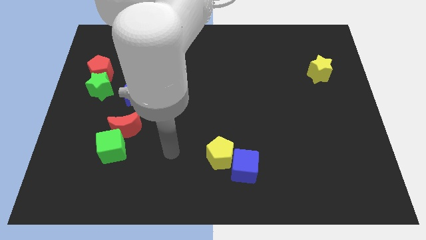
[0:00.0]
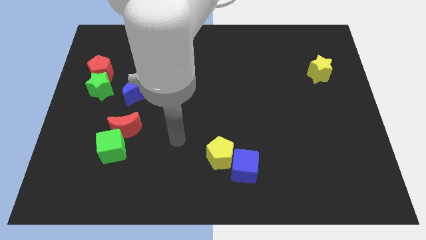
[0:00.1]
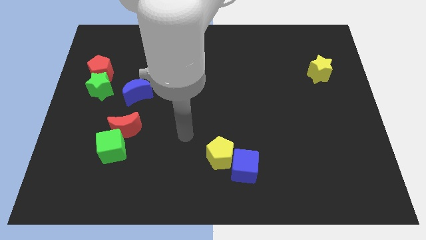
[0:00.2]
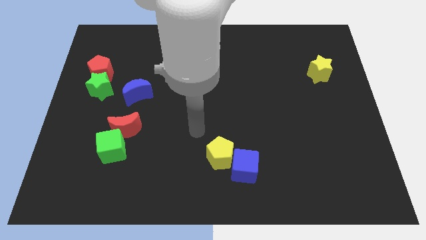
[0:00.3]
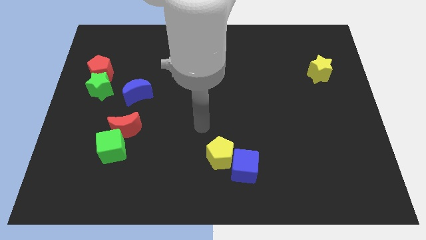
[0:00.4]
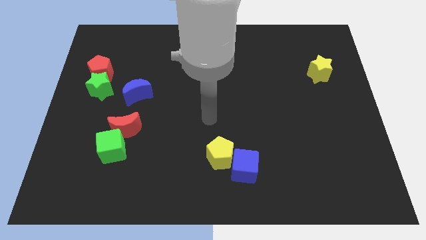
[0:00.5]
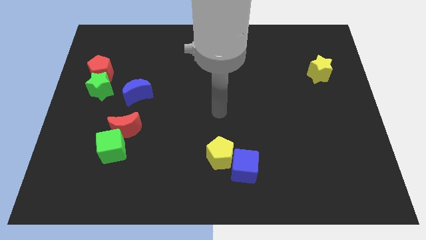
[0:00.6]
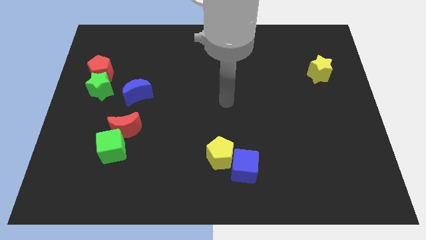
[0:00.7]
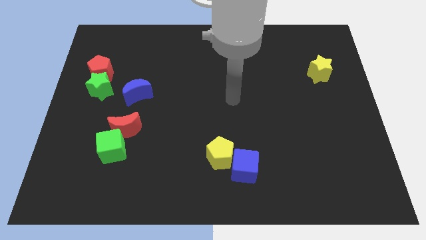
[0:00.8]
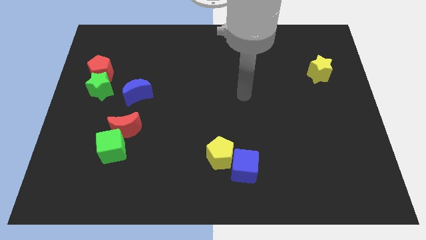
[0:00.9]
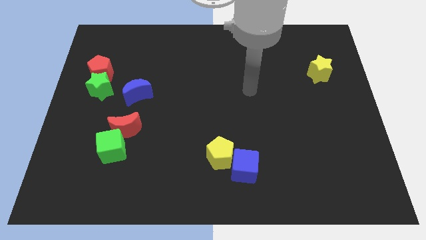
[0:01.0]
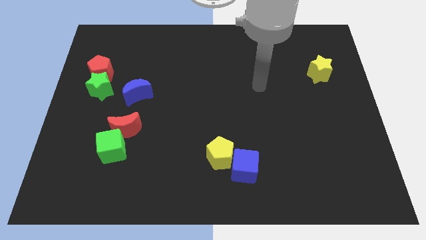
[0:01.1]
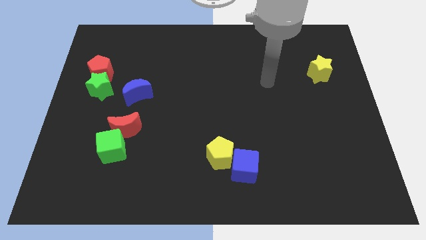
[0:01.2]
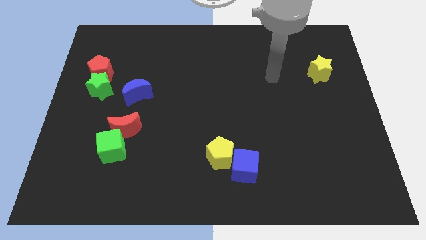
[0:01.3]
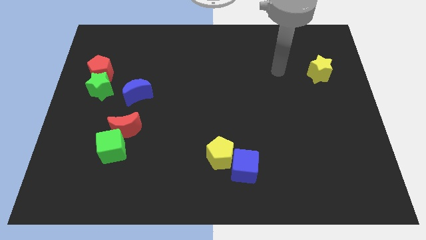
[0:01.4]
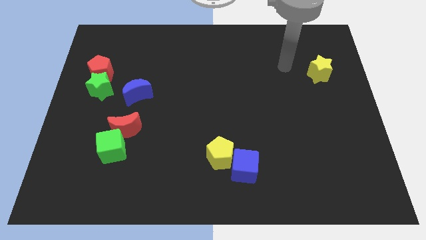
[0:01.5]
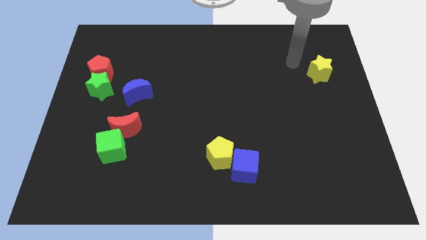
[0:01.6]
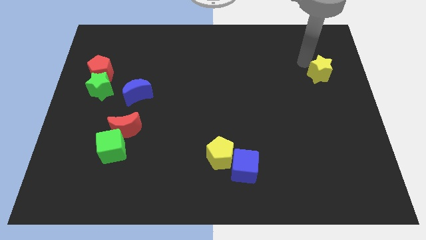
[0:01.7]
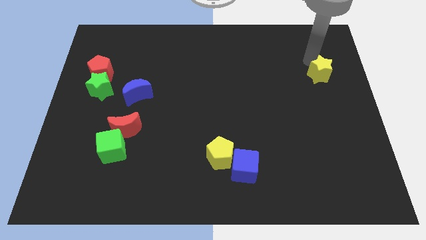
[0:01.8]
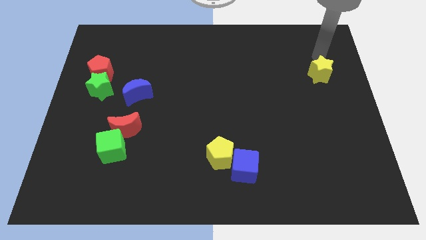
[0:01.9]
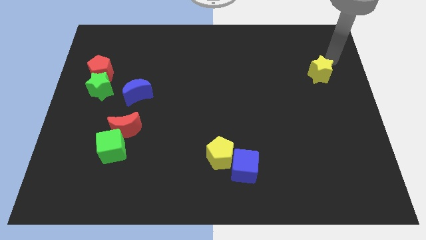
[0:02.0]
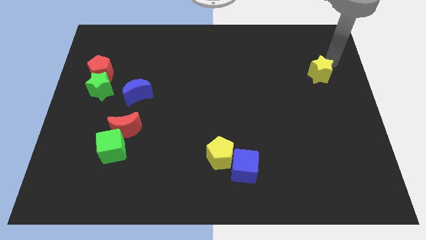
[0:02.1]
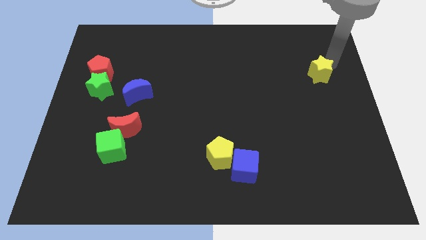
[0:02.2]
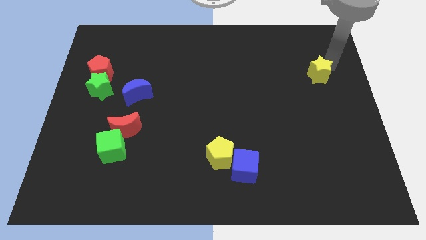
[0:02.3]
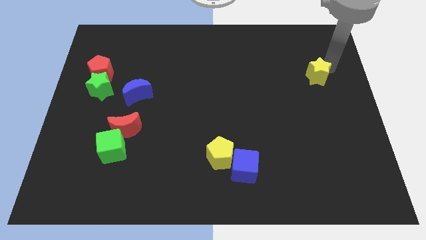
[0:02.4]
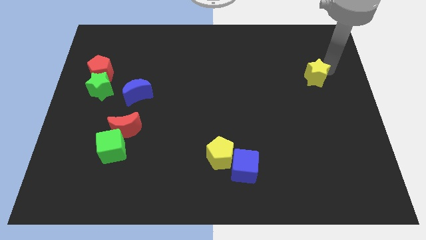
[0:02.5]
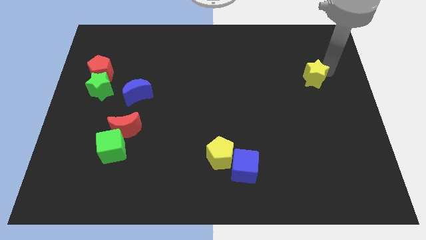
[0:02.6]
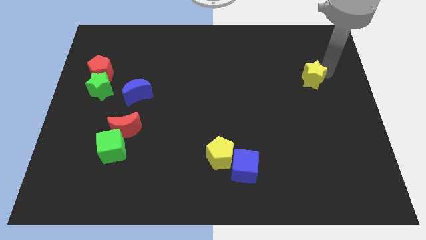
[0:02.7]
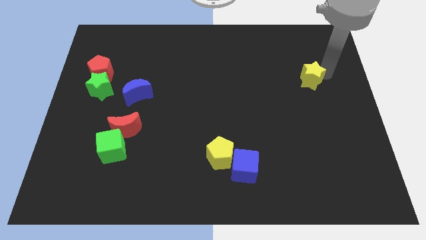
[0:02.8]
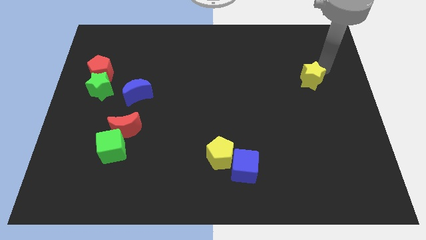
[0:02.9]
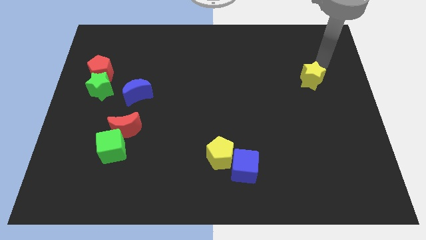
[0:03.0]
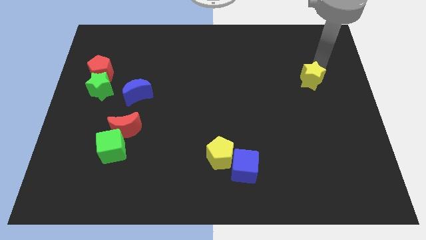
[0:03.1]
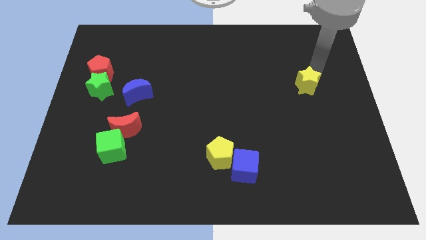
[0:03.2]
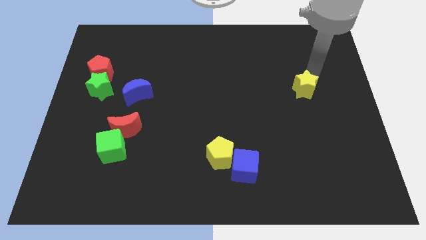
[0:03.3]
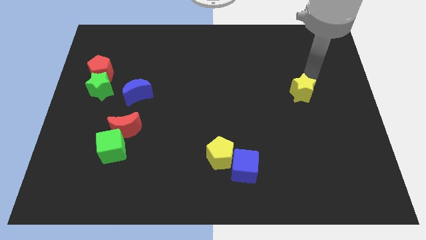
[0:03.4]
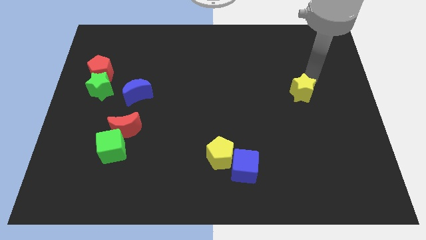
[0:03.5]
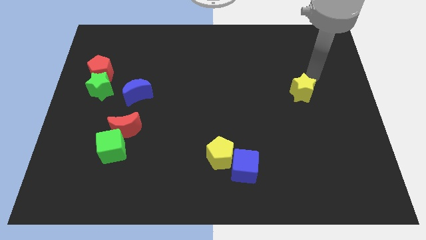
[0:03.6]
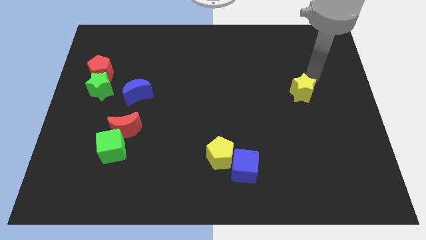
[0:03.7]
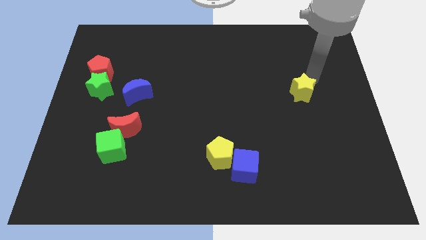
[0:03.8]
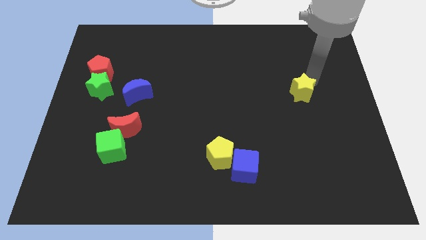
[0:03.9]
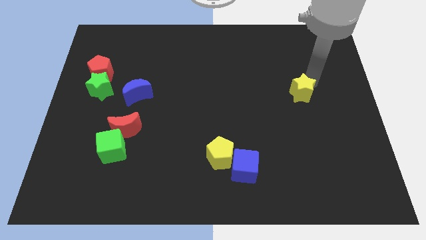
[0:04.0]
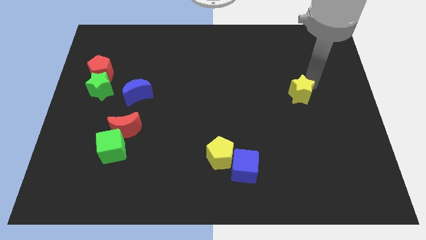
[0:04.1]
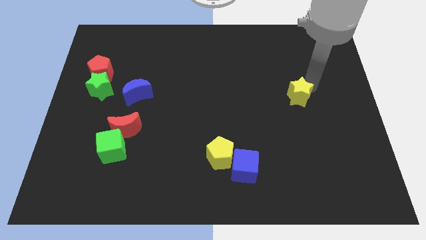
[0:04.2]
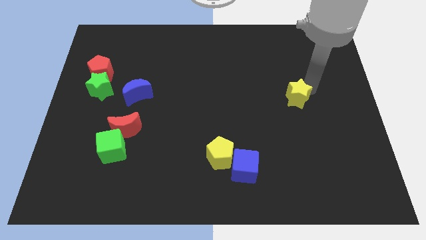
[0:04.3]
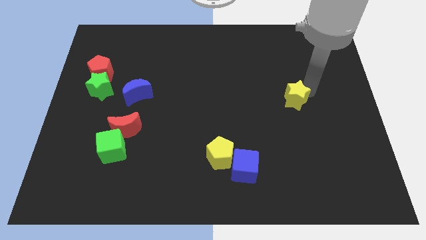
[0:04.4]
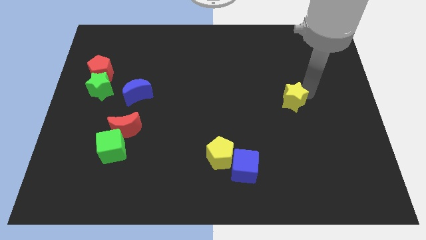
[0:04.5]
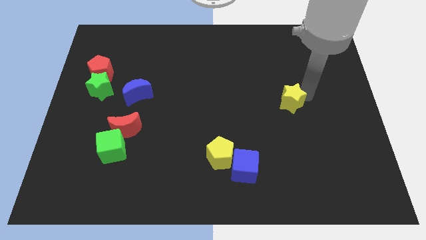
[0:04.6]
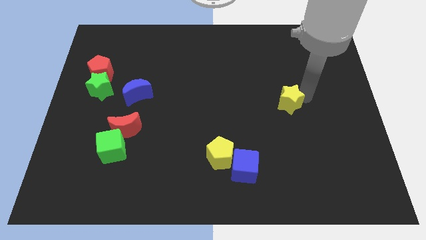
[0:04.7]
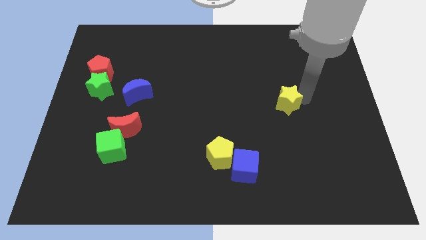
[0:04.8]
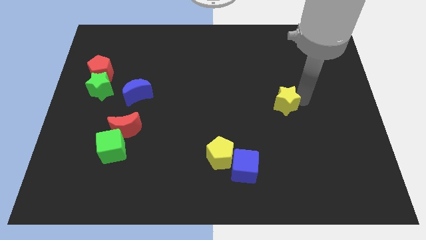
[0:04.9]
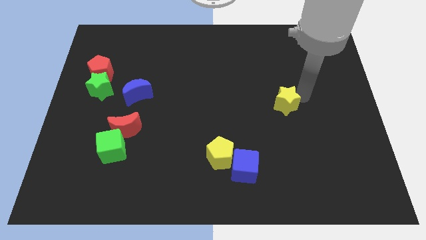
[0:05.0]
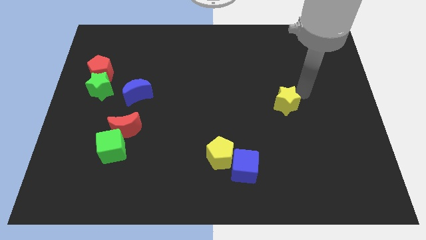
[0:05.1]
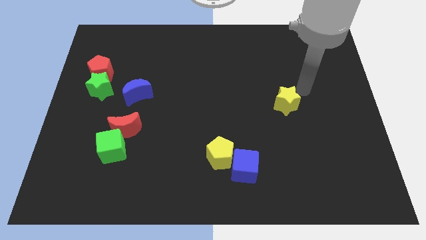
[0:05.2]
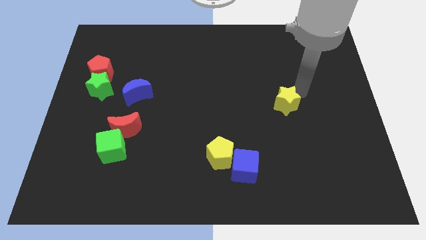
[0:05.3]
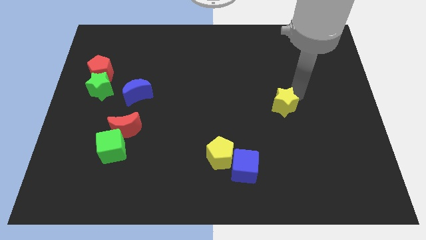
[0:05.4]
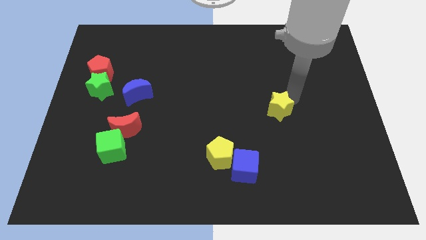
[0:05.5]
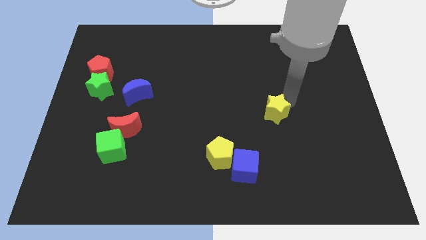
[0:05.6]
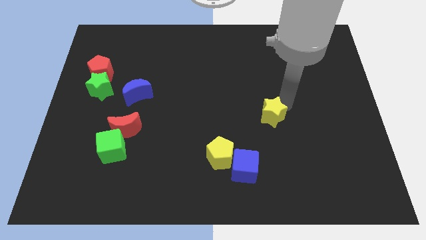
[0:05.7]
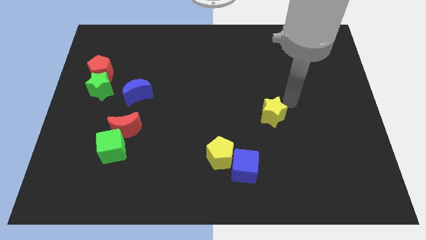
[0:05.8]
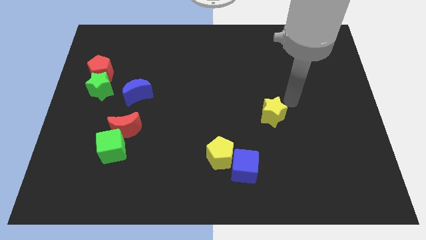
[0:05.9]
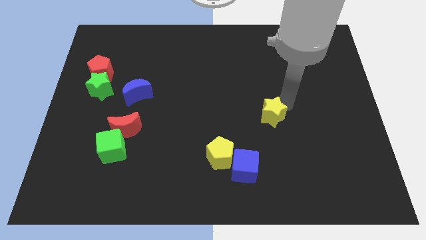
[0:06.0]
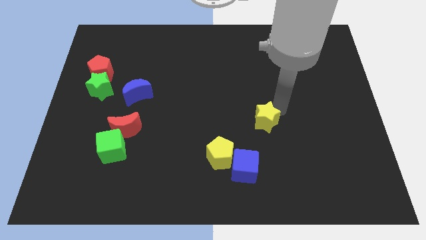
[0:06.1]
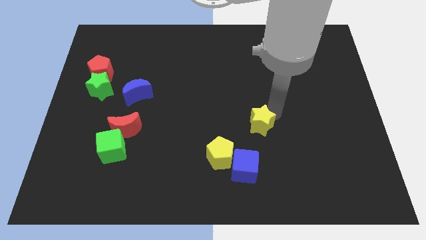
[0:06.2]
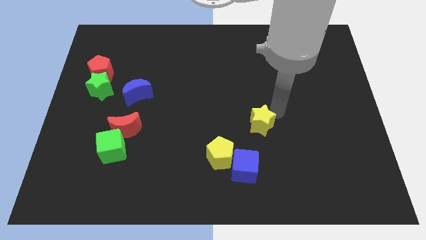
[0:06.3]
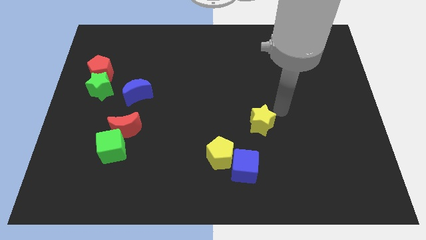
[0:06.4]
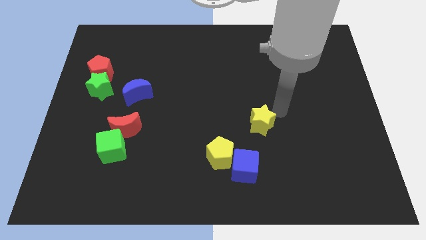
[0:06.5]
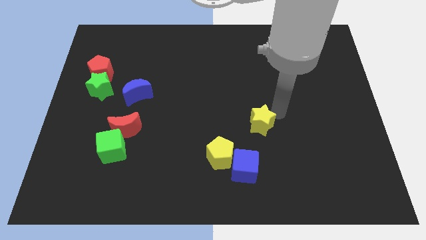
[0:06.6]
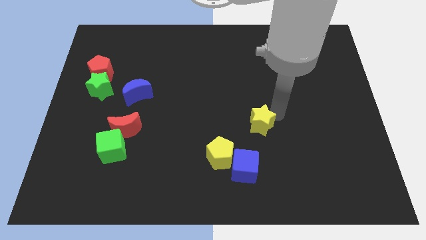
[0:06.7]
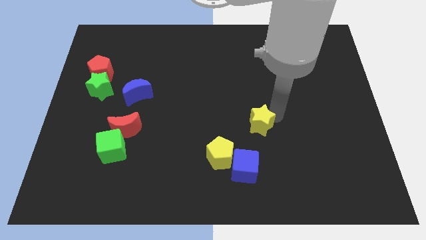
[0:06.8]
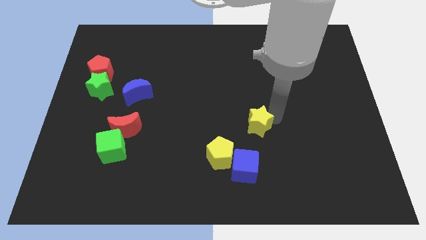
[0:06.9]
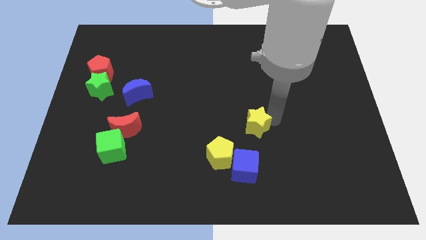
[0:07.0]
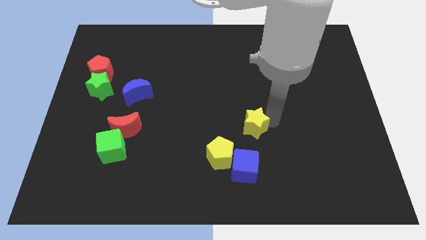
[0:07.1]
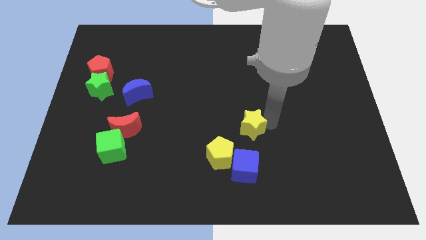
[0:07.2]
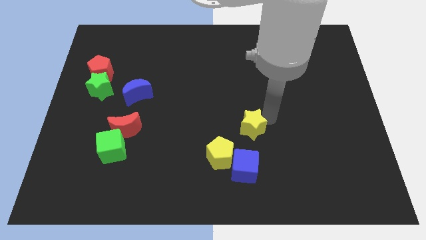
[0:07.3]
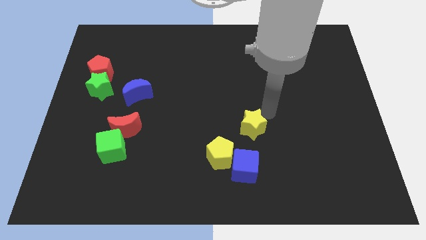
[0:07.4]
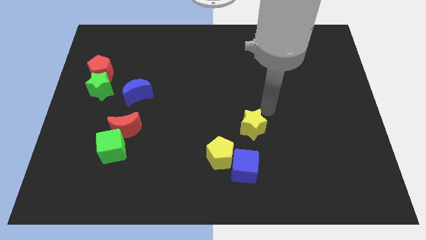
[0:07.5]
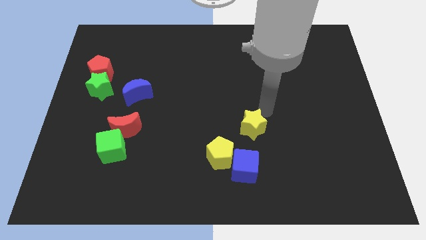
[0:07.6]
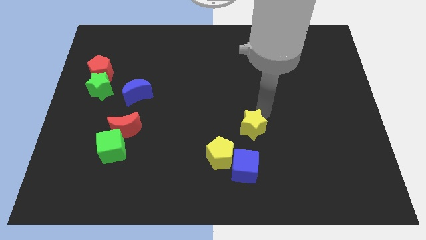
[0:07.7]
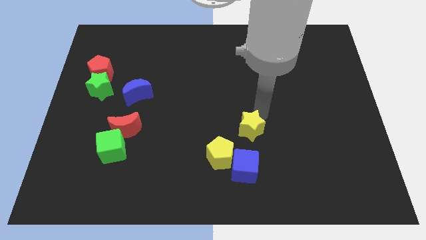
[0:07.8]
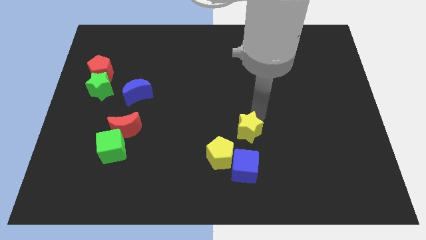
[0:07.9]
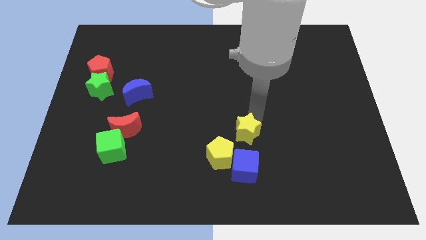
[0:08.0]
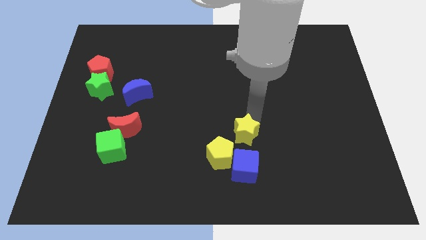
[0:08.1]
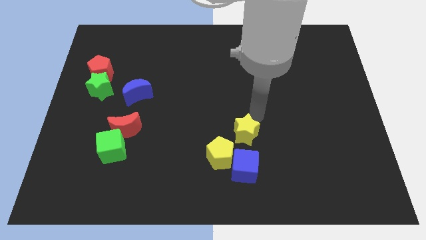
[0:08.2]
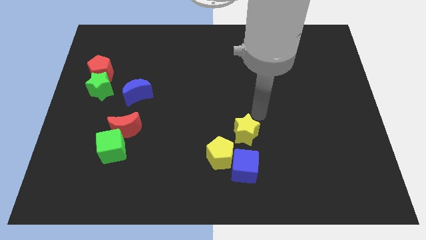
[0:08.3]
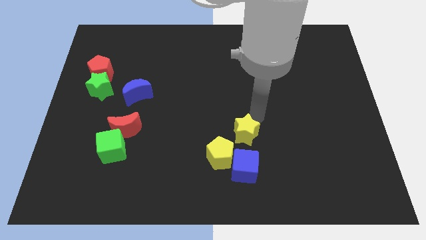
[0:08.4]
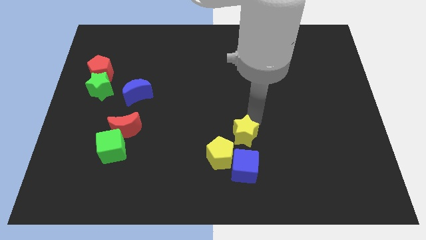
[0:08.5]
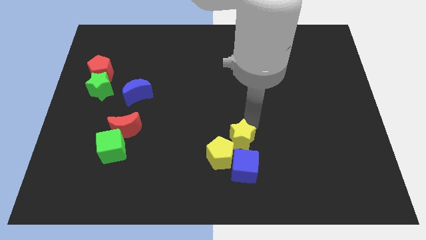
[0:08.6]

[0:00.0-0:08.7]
put the yellow star close to the yellow pentagon
